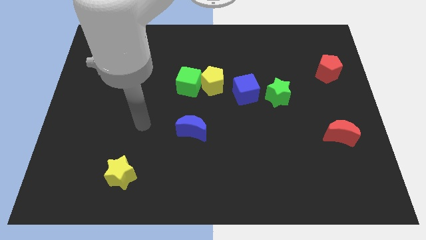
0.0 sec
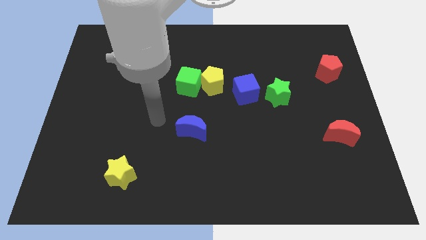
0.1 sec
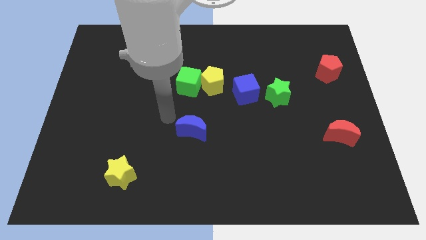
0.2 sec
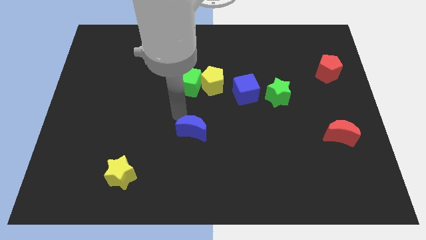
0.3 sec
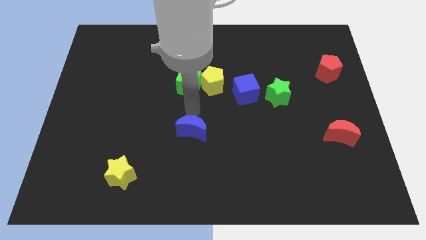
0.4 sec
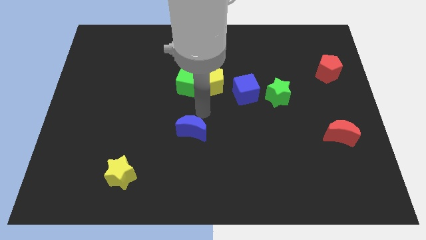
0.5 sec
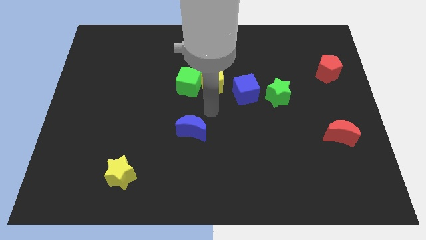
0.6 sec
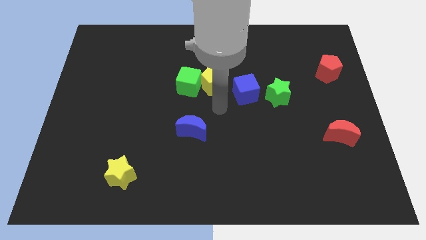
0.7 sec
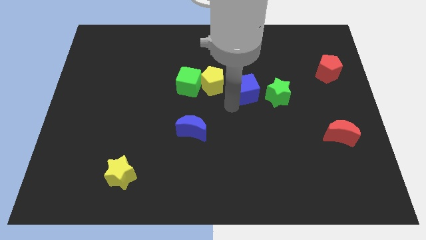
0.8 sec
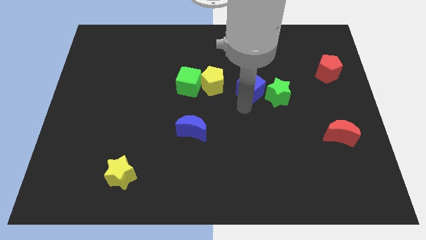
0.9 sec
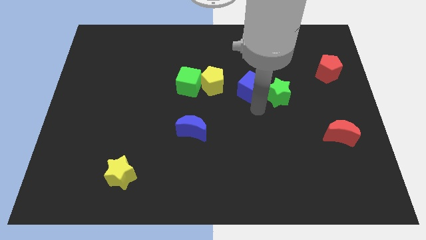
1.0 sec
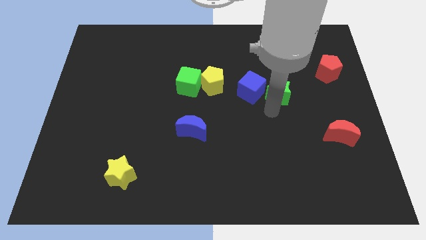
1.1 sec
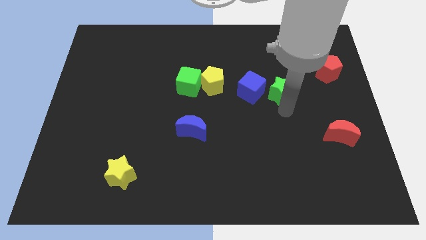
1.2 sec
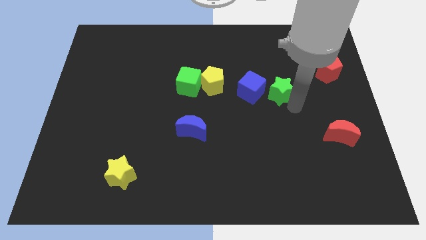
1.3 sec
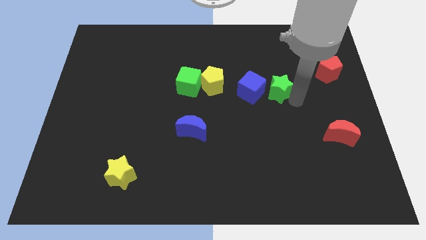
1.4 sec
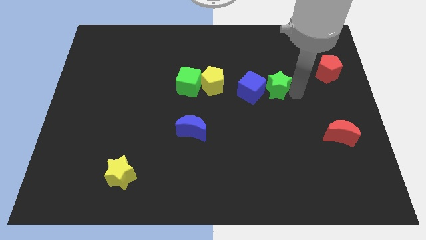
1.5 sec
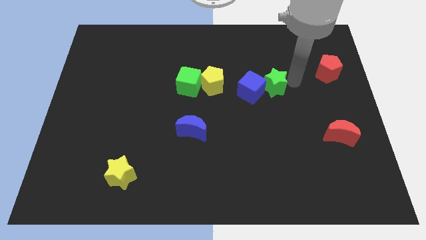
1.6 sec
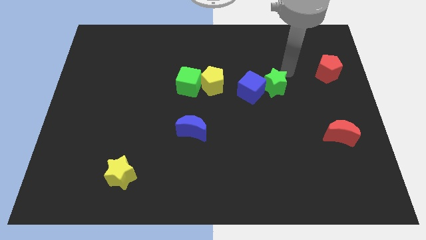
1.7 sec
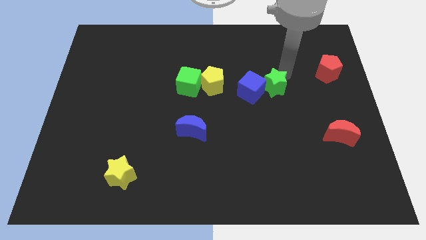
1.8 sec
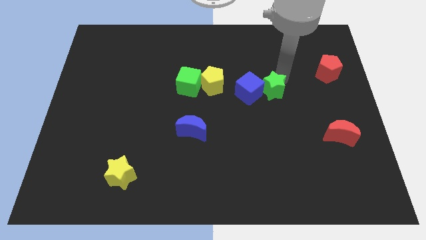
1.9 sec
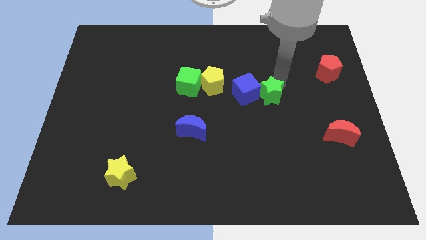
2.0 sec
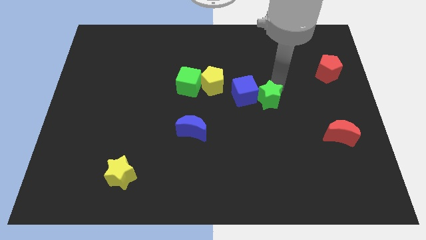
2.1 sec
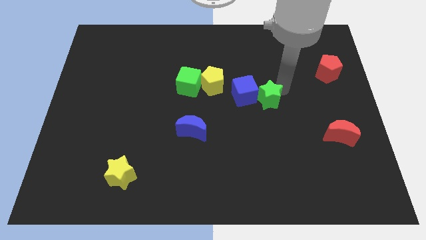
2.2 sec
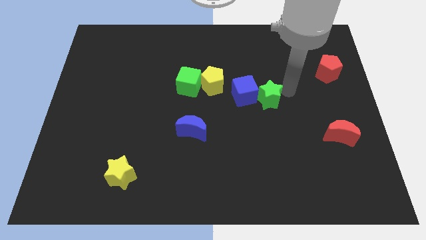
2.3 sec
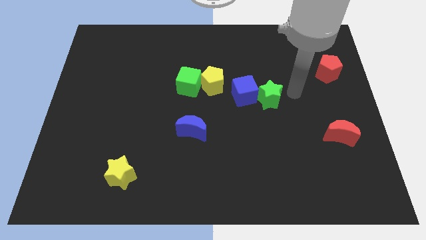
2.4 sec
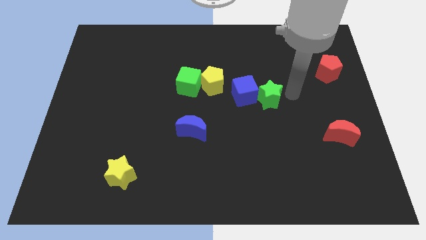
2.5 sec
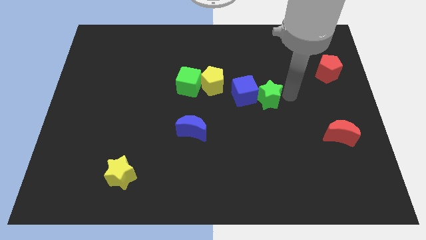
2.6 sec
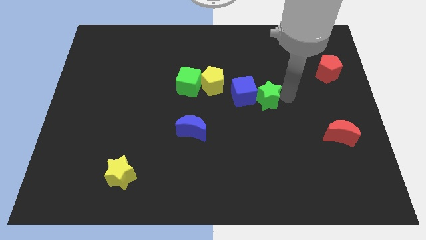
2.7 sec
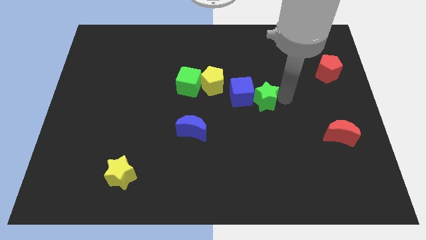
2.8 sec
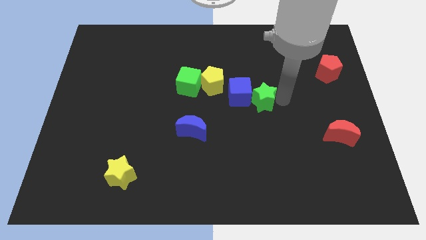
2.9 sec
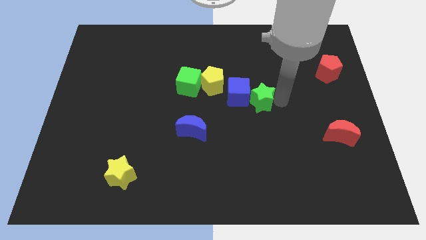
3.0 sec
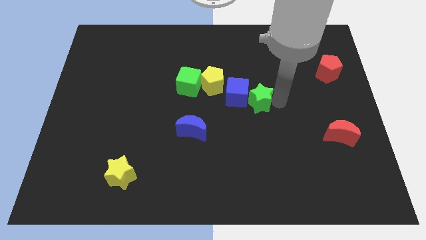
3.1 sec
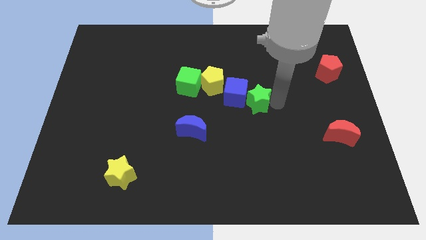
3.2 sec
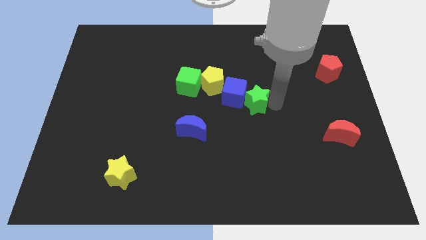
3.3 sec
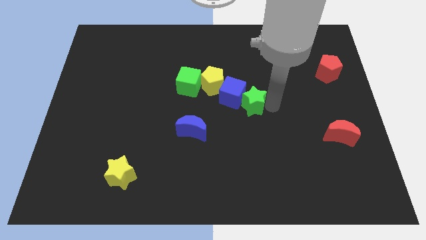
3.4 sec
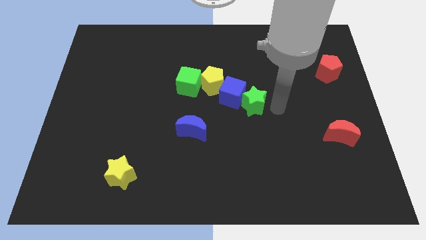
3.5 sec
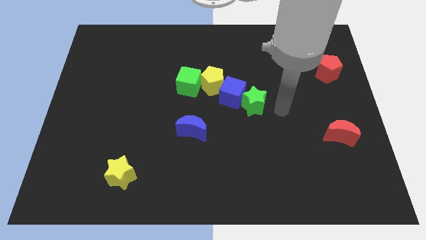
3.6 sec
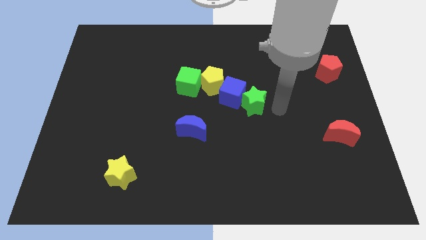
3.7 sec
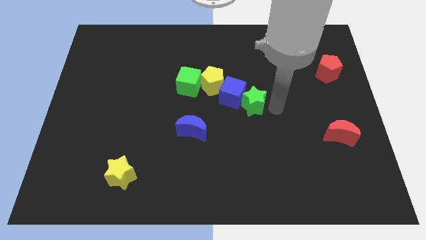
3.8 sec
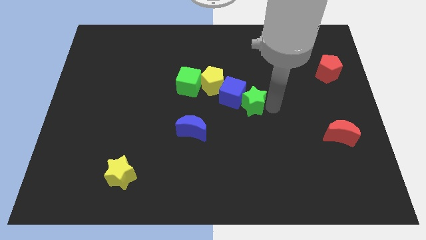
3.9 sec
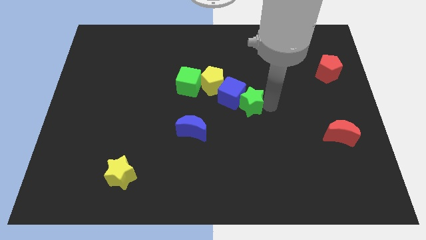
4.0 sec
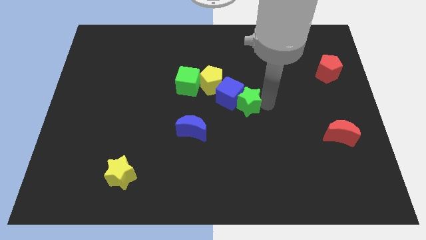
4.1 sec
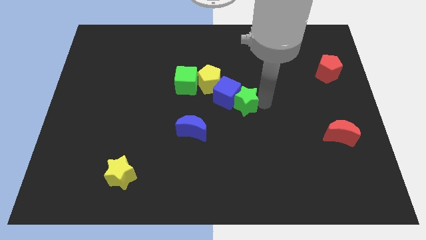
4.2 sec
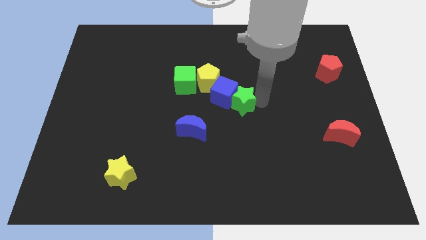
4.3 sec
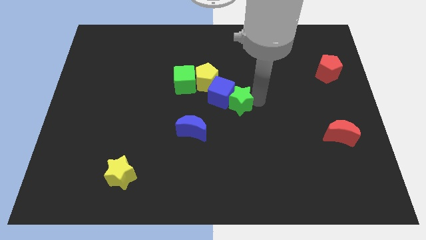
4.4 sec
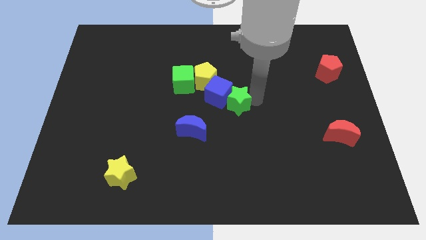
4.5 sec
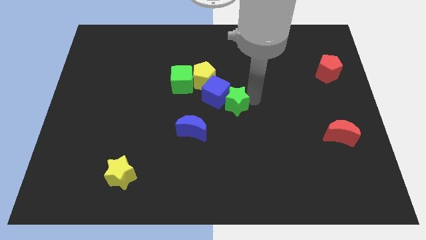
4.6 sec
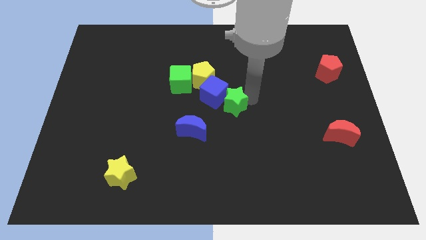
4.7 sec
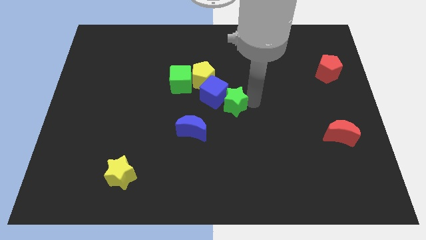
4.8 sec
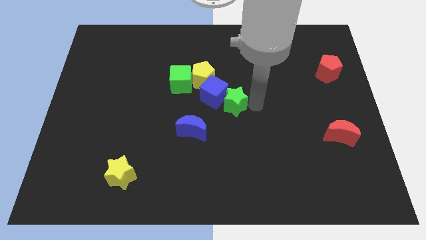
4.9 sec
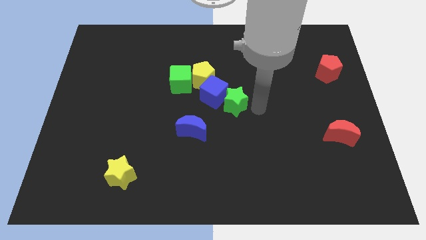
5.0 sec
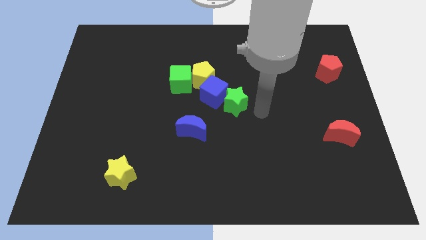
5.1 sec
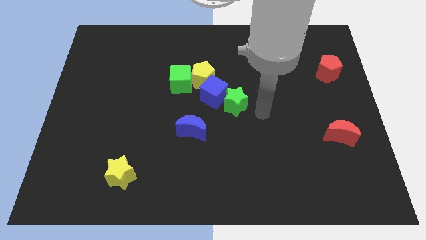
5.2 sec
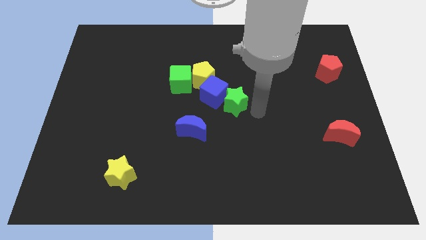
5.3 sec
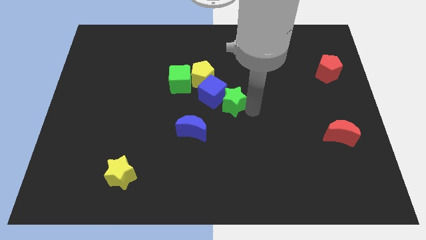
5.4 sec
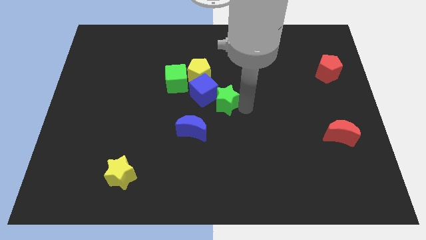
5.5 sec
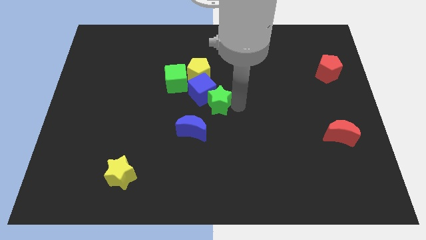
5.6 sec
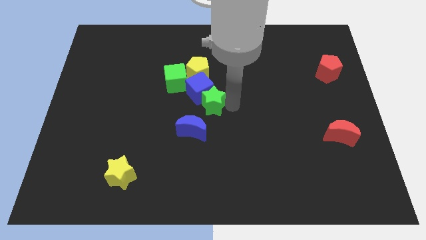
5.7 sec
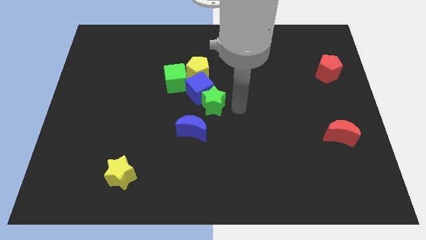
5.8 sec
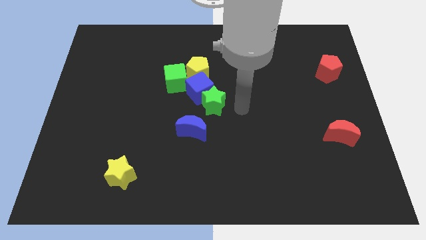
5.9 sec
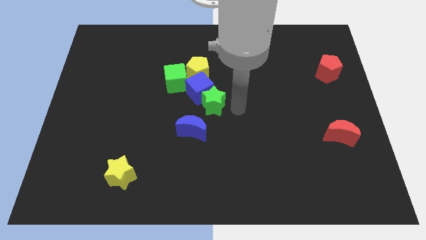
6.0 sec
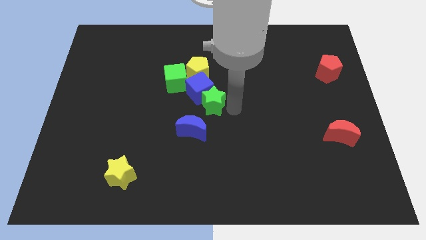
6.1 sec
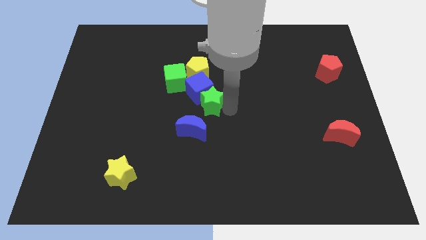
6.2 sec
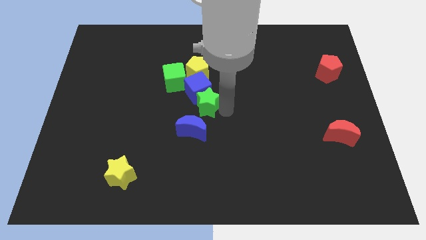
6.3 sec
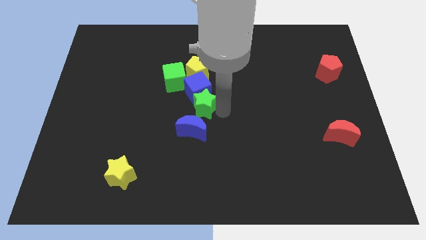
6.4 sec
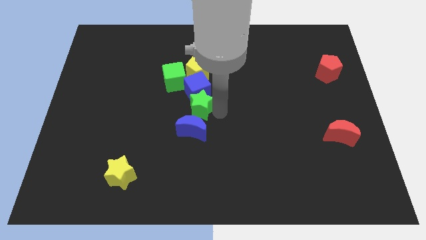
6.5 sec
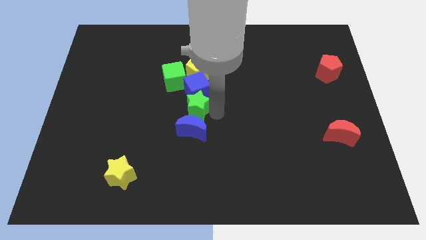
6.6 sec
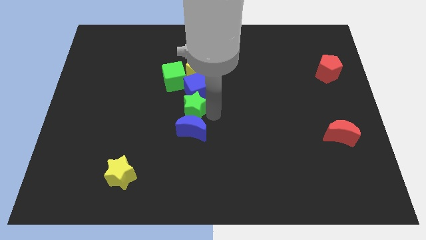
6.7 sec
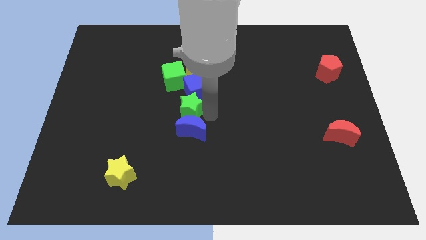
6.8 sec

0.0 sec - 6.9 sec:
slide the green star to the left

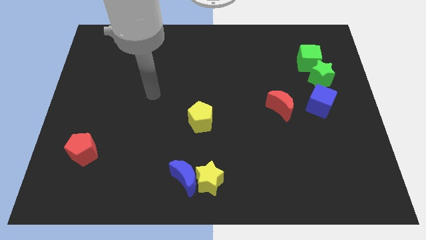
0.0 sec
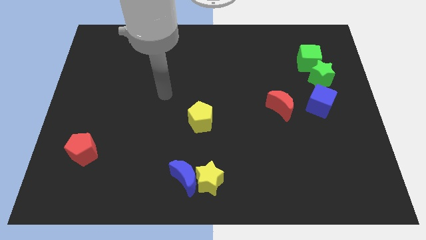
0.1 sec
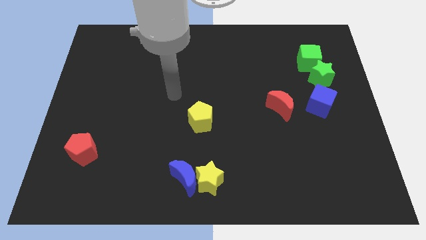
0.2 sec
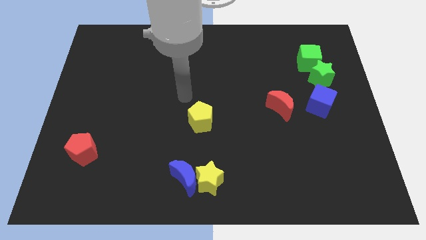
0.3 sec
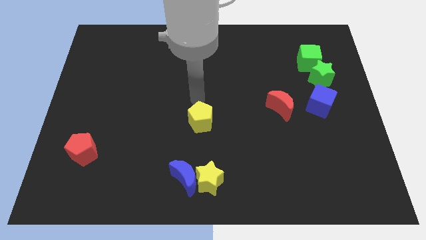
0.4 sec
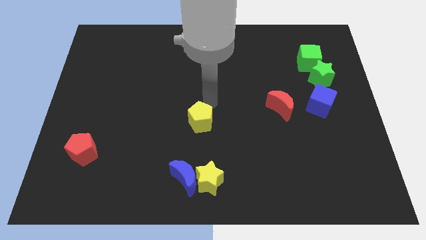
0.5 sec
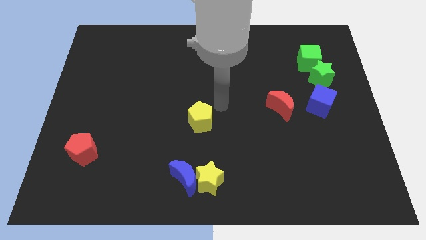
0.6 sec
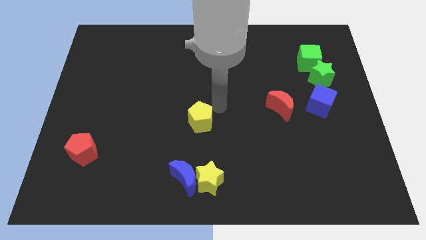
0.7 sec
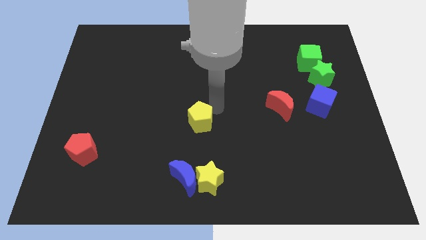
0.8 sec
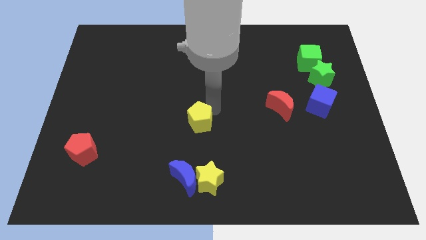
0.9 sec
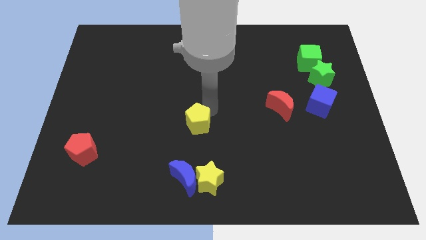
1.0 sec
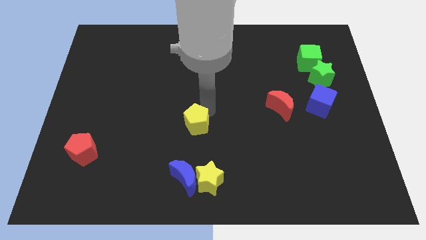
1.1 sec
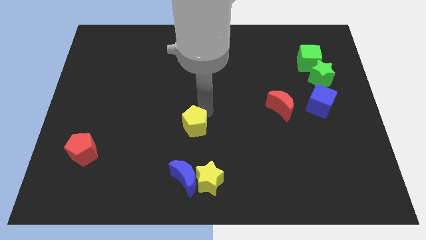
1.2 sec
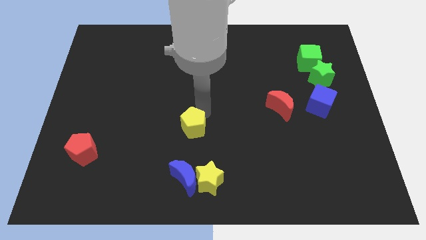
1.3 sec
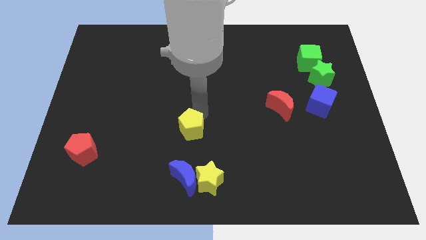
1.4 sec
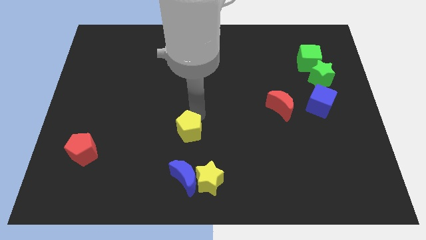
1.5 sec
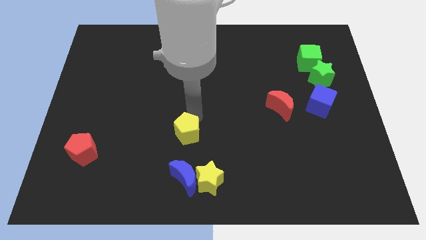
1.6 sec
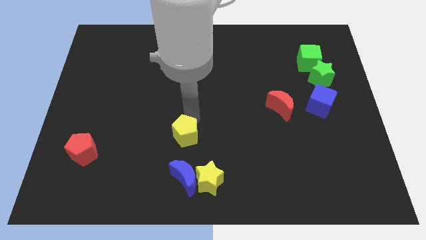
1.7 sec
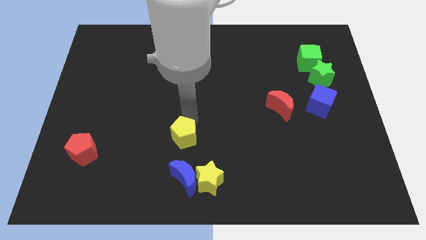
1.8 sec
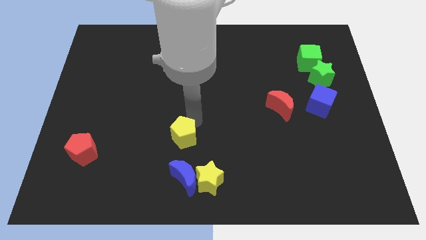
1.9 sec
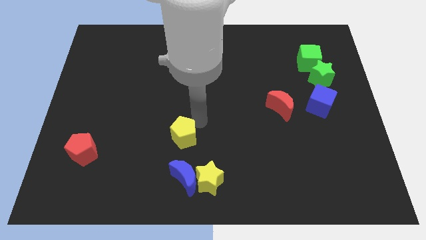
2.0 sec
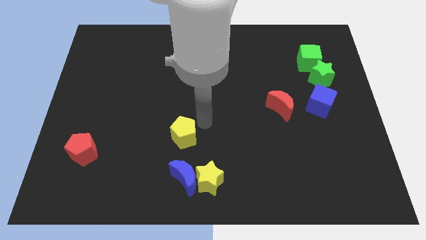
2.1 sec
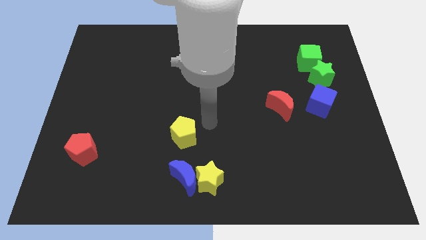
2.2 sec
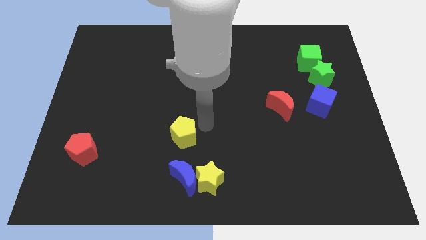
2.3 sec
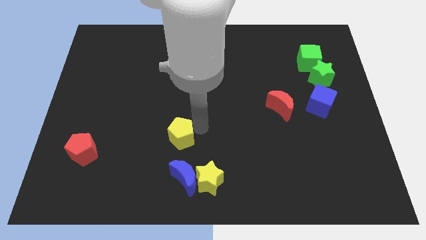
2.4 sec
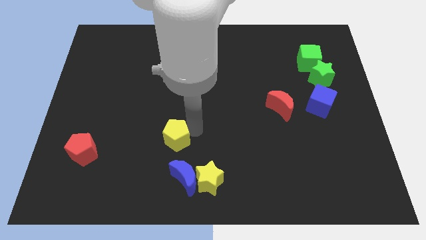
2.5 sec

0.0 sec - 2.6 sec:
slide the yellow pentagon downwards and left a little bit
